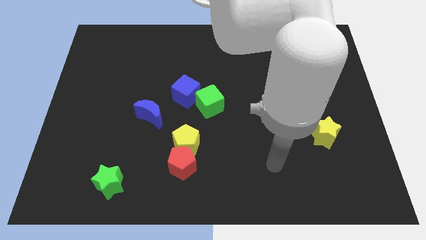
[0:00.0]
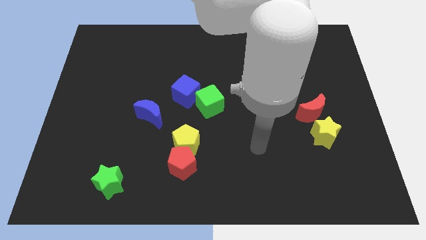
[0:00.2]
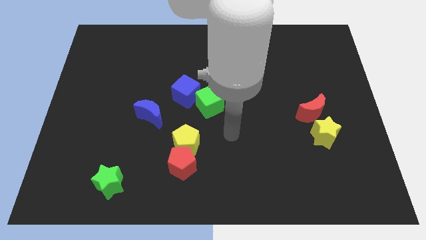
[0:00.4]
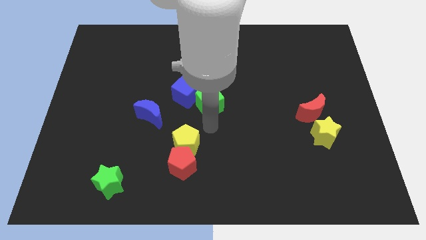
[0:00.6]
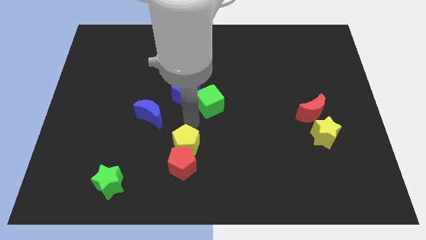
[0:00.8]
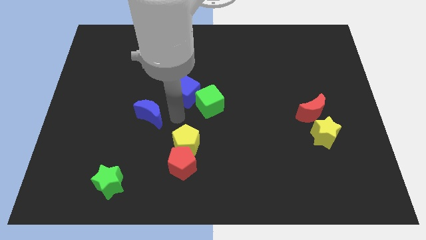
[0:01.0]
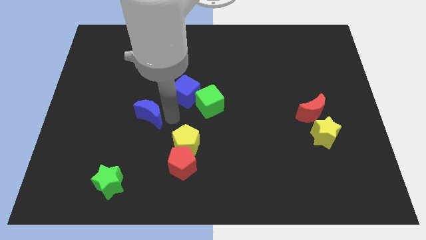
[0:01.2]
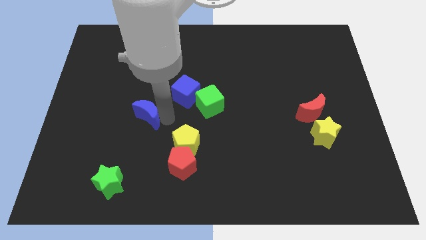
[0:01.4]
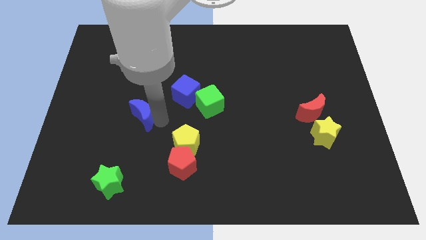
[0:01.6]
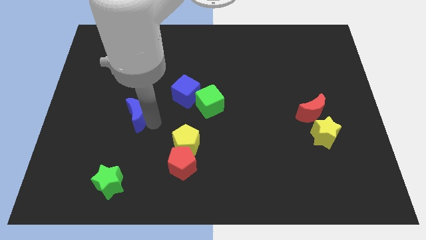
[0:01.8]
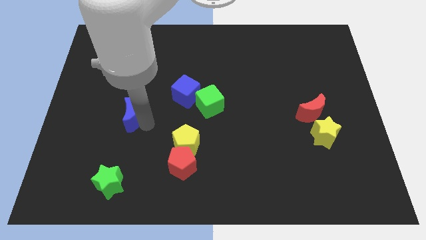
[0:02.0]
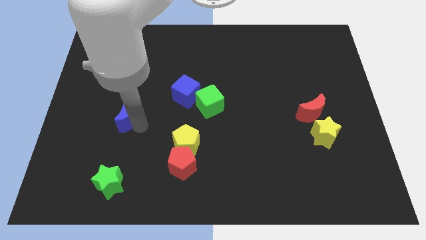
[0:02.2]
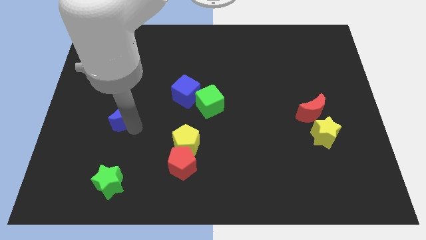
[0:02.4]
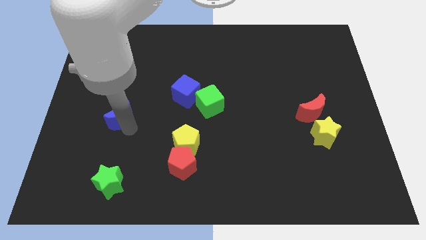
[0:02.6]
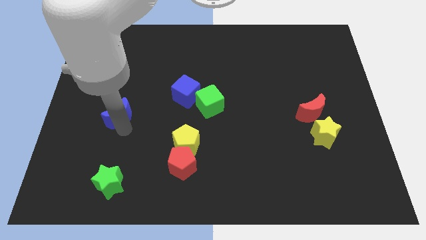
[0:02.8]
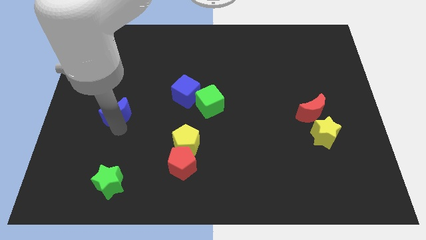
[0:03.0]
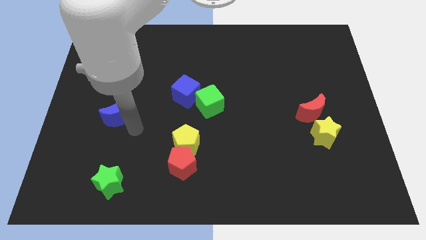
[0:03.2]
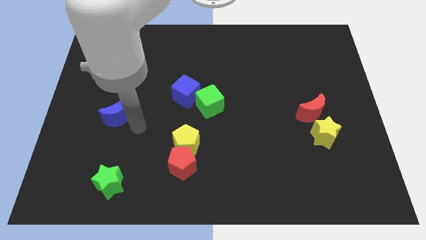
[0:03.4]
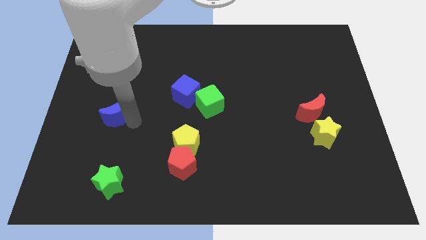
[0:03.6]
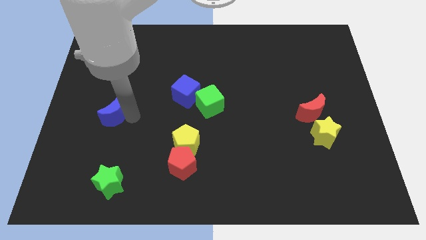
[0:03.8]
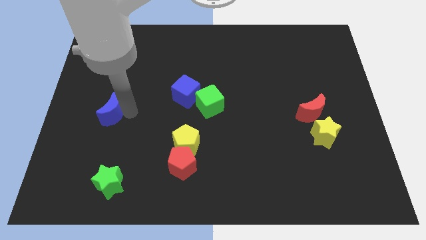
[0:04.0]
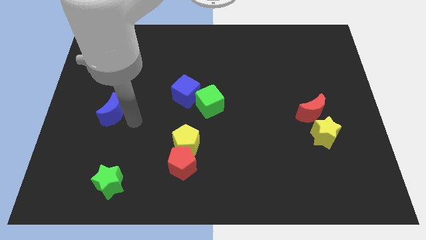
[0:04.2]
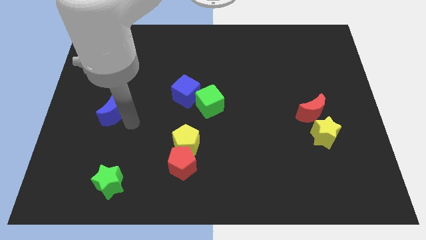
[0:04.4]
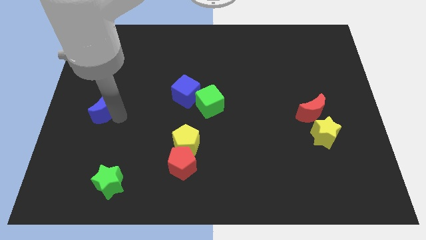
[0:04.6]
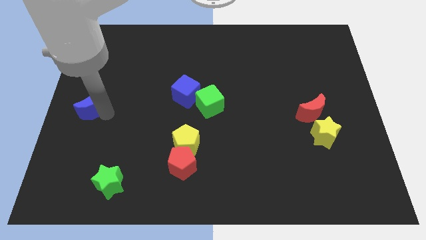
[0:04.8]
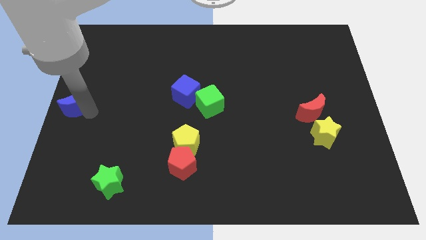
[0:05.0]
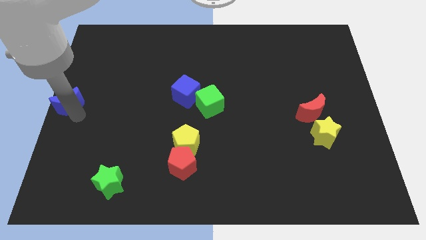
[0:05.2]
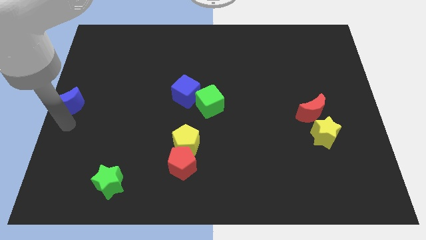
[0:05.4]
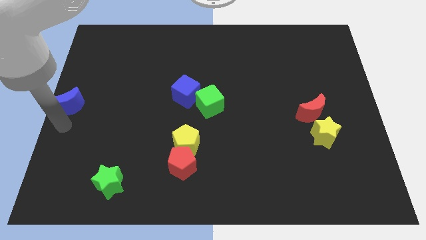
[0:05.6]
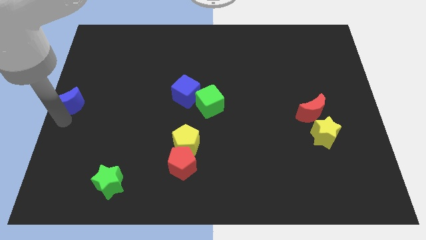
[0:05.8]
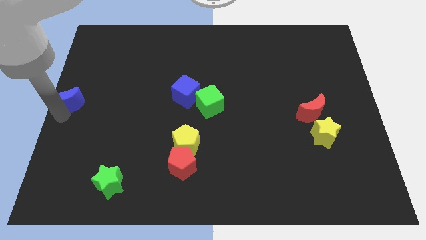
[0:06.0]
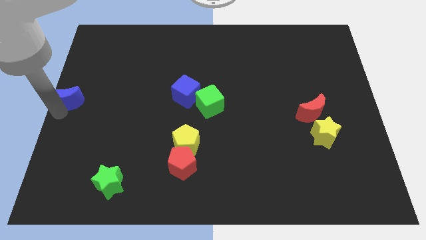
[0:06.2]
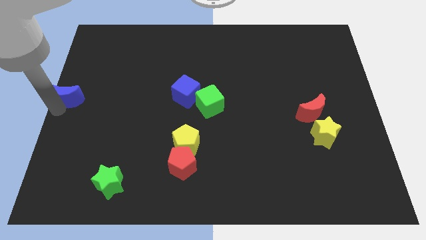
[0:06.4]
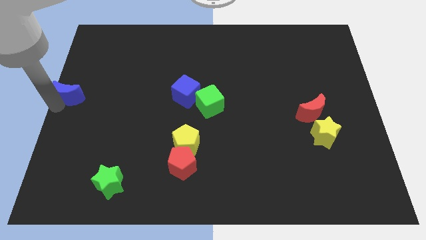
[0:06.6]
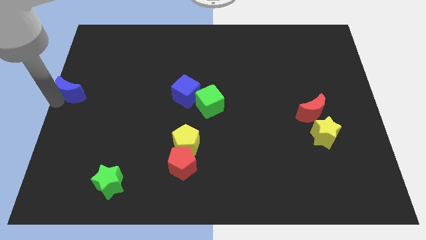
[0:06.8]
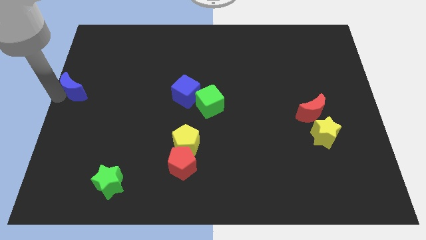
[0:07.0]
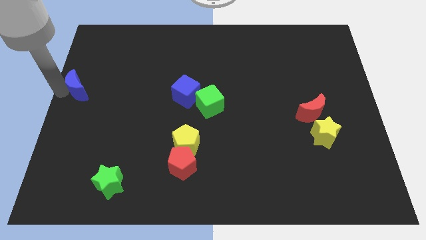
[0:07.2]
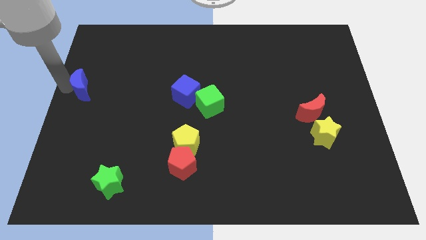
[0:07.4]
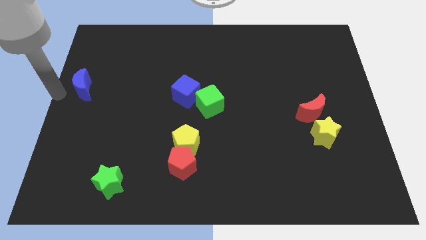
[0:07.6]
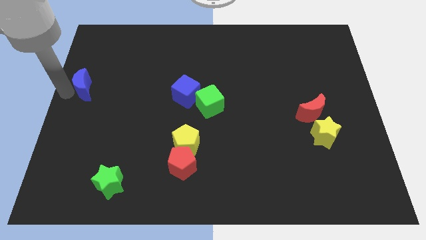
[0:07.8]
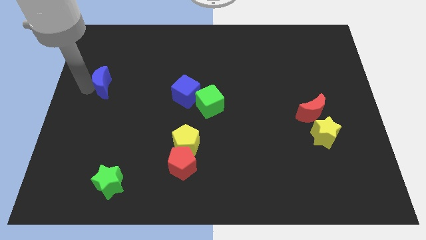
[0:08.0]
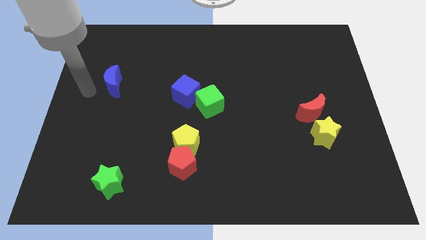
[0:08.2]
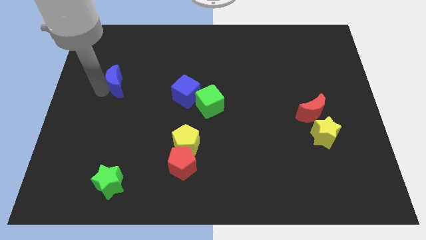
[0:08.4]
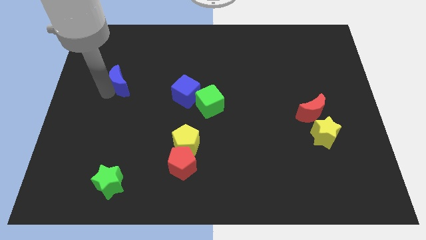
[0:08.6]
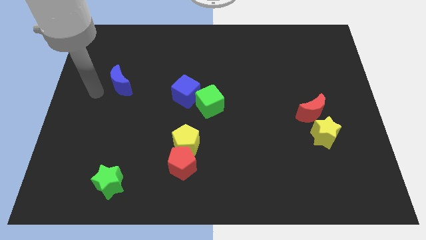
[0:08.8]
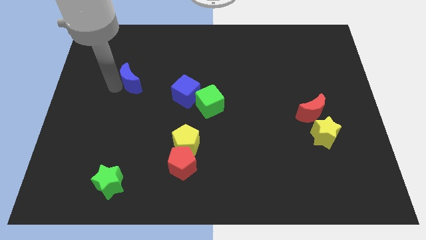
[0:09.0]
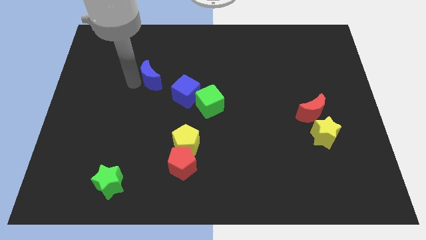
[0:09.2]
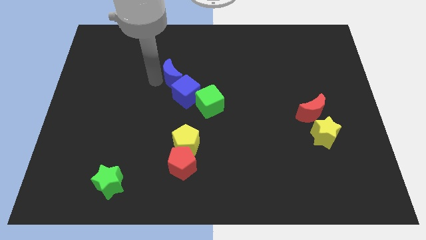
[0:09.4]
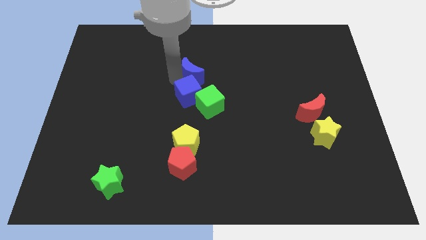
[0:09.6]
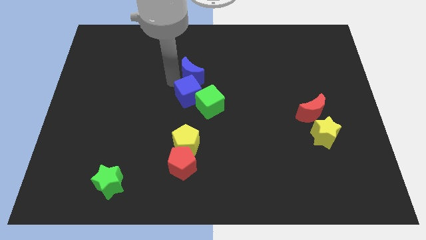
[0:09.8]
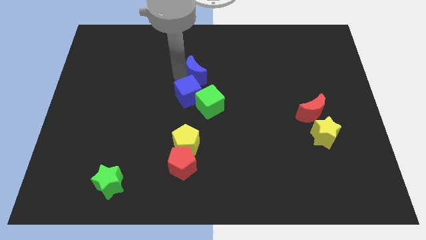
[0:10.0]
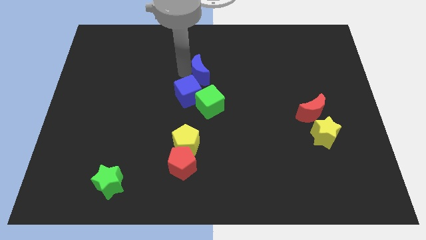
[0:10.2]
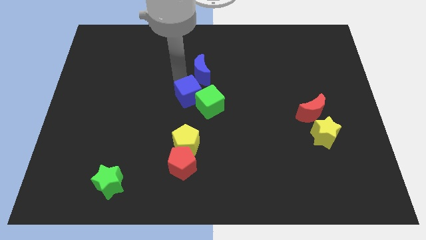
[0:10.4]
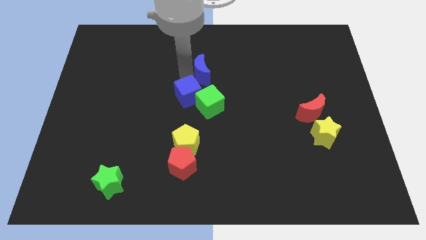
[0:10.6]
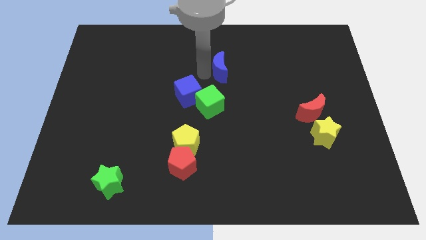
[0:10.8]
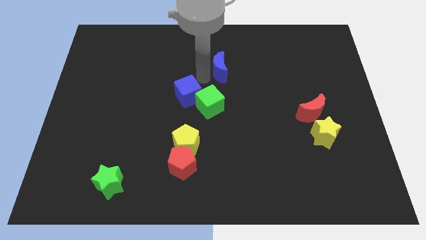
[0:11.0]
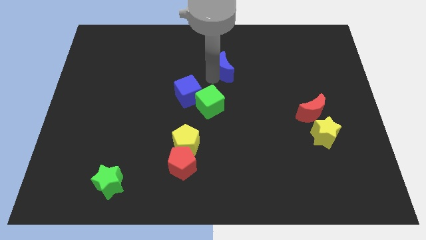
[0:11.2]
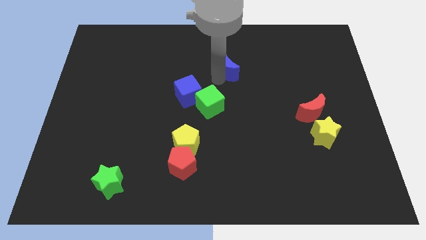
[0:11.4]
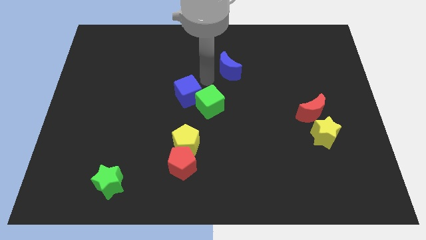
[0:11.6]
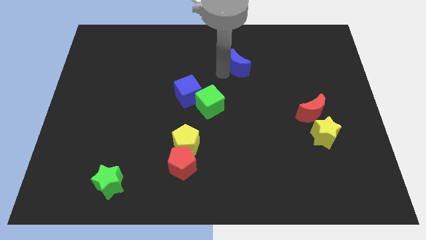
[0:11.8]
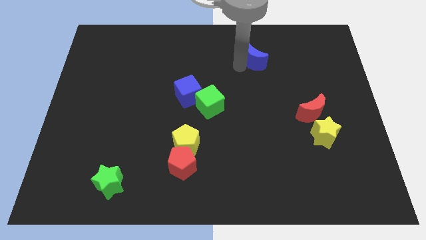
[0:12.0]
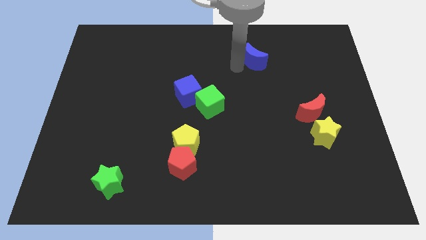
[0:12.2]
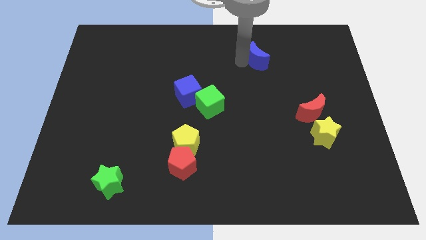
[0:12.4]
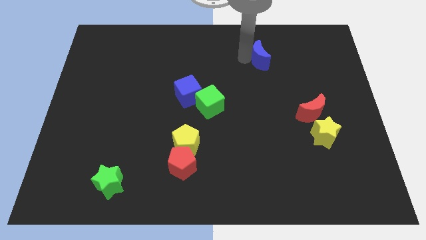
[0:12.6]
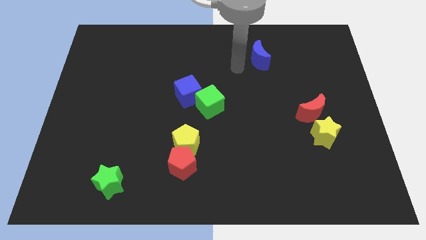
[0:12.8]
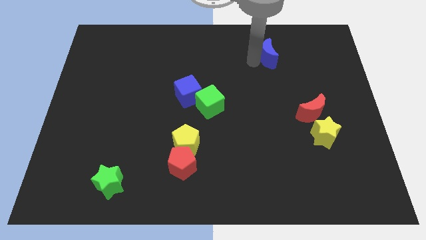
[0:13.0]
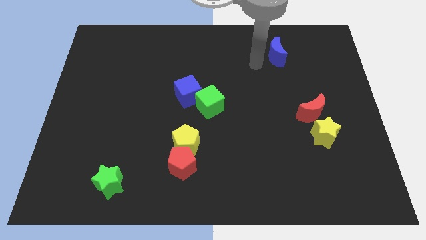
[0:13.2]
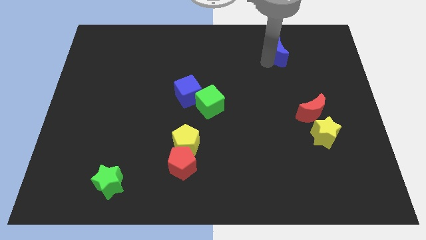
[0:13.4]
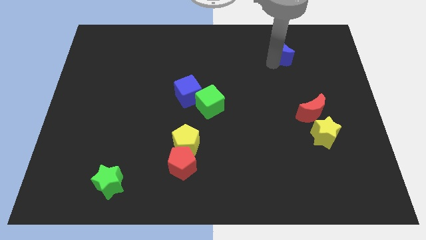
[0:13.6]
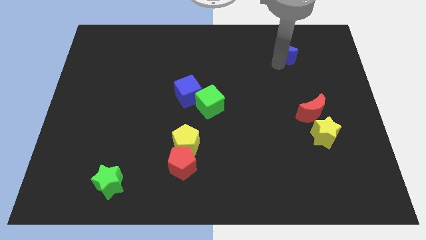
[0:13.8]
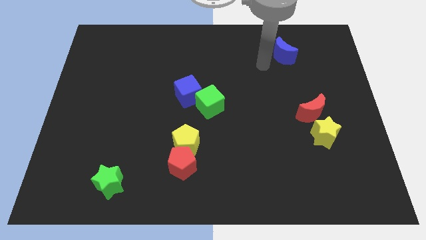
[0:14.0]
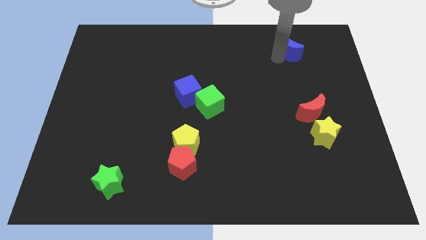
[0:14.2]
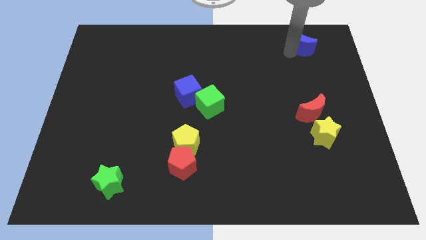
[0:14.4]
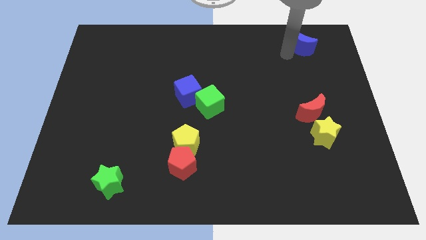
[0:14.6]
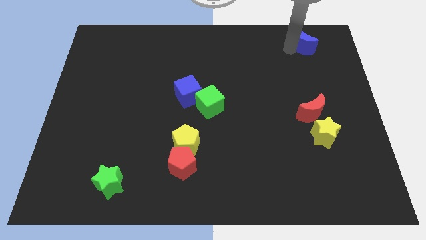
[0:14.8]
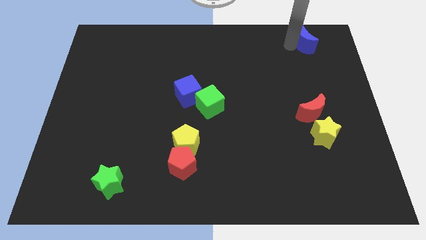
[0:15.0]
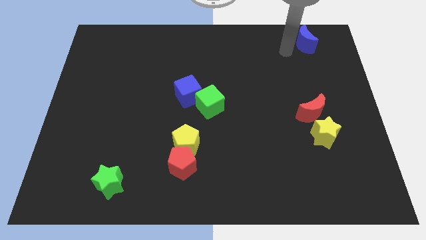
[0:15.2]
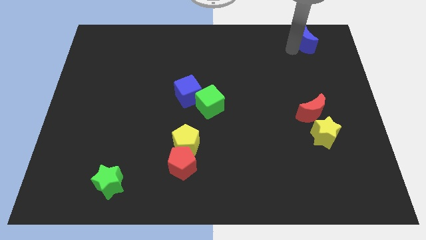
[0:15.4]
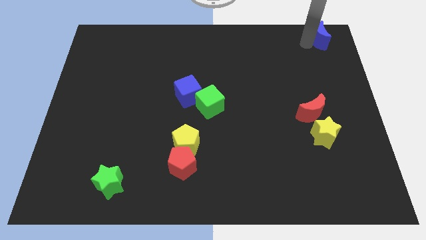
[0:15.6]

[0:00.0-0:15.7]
slide the blue moon to the top right of the board
